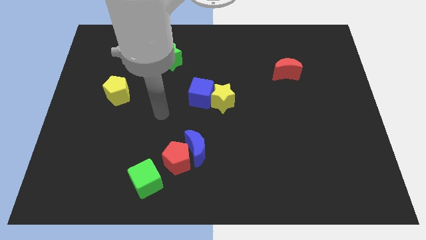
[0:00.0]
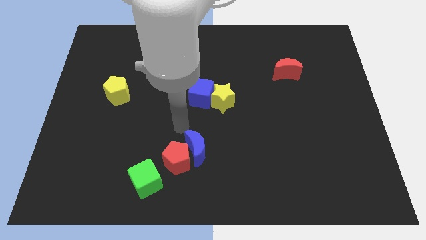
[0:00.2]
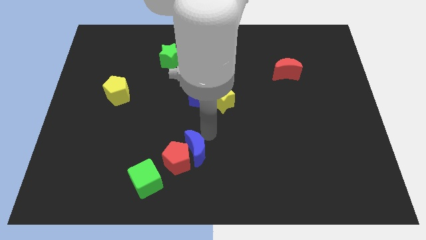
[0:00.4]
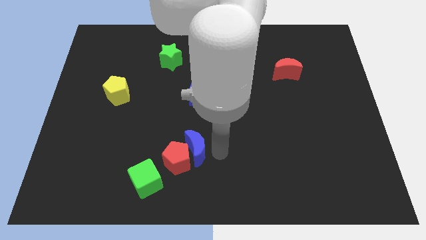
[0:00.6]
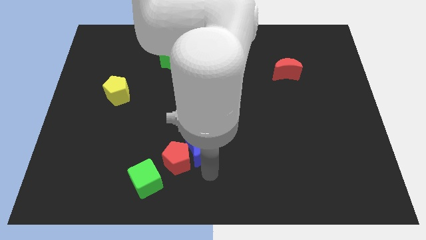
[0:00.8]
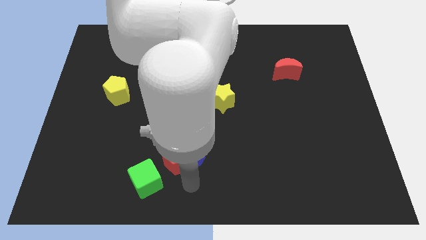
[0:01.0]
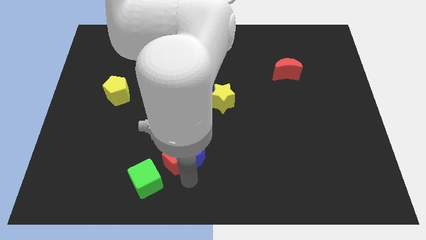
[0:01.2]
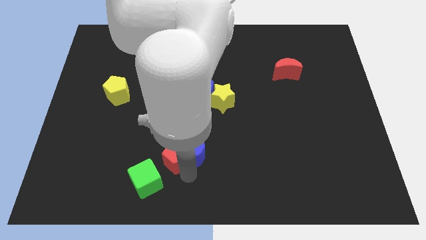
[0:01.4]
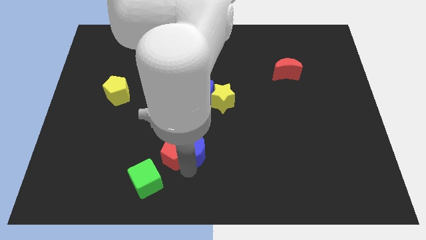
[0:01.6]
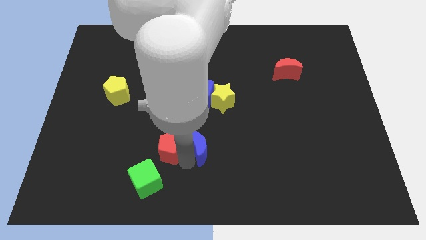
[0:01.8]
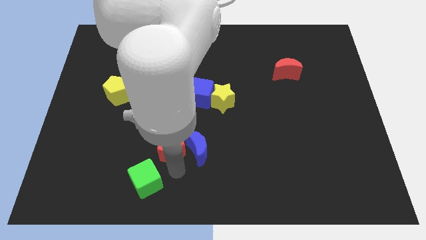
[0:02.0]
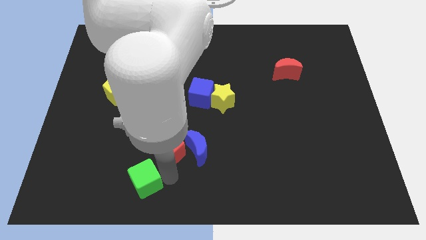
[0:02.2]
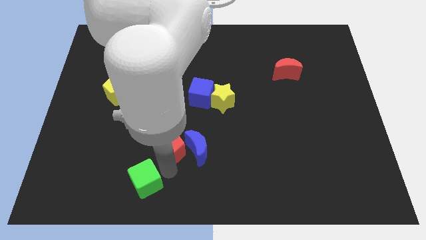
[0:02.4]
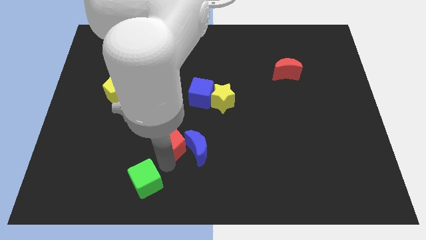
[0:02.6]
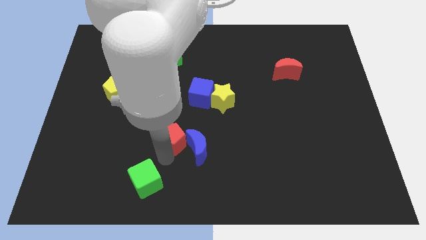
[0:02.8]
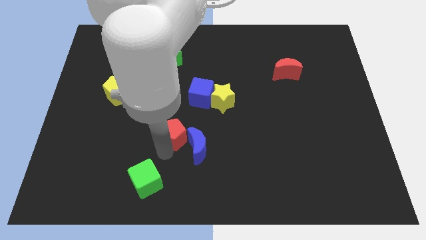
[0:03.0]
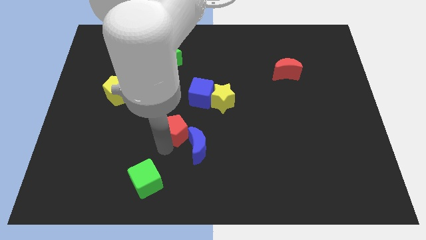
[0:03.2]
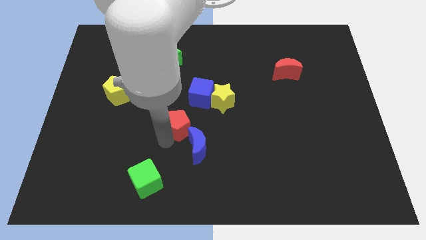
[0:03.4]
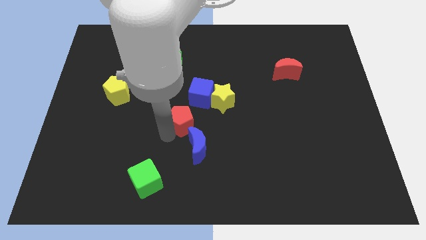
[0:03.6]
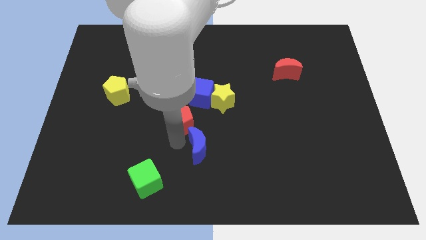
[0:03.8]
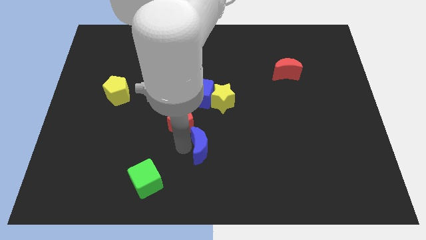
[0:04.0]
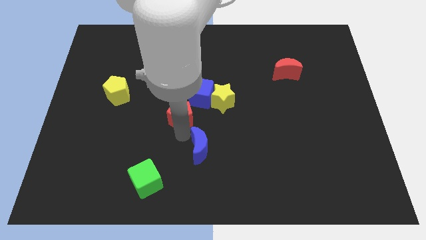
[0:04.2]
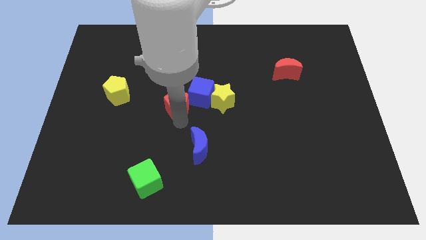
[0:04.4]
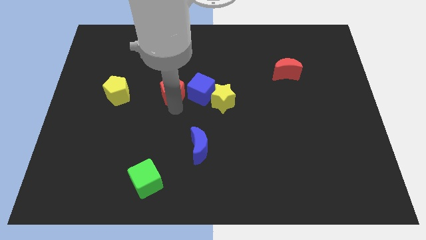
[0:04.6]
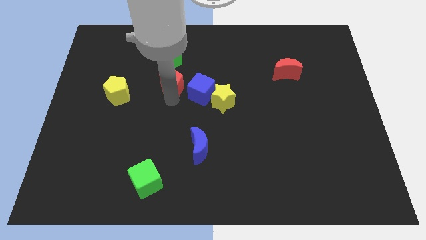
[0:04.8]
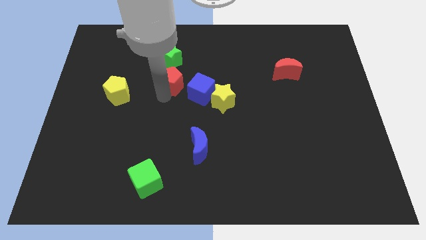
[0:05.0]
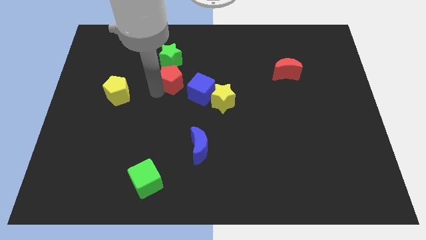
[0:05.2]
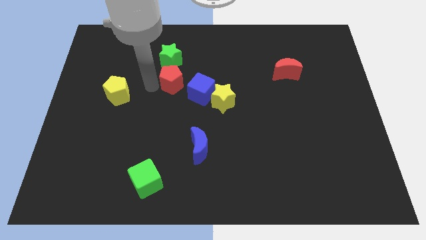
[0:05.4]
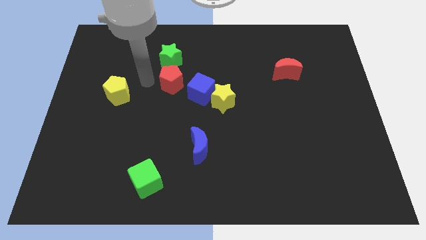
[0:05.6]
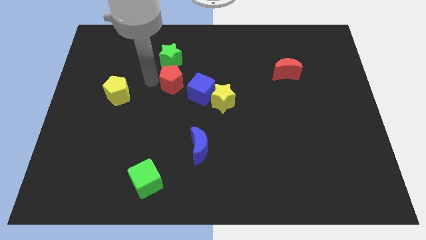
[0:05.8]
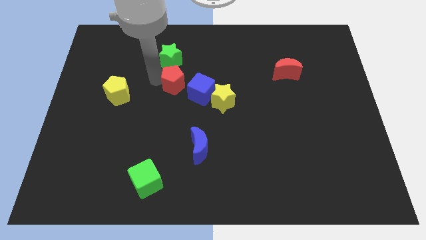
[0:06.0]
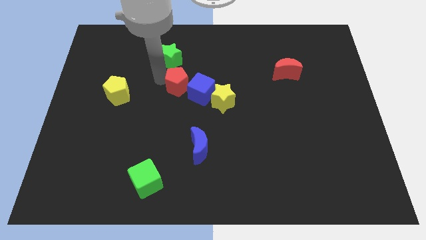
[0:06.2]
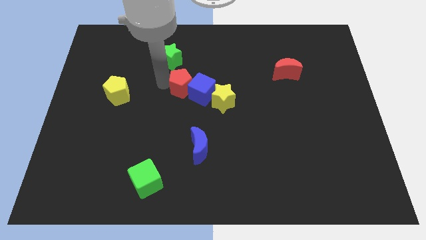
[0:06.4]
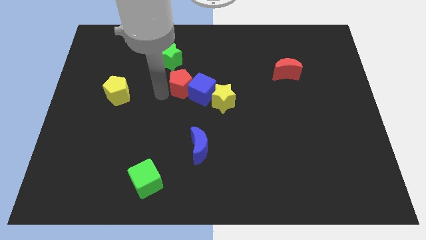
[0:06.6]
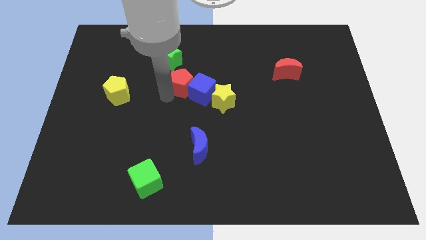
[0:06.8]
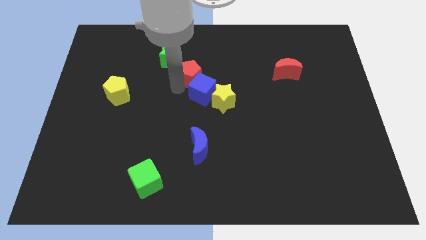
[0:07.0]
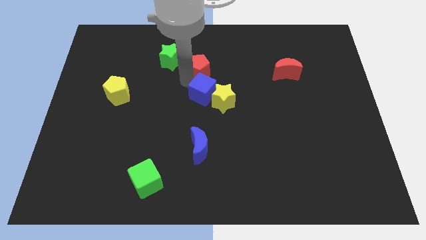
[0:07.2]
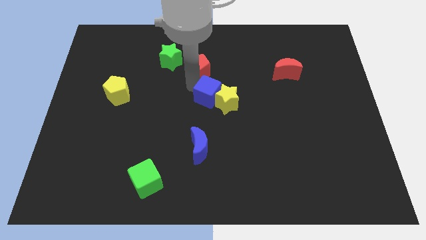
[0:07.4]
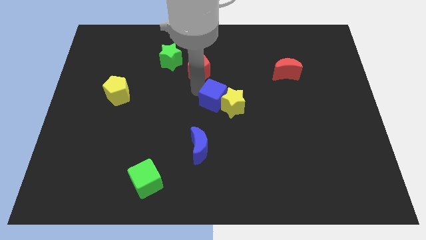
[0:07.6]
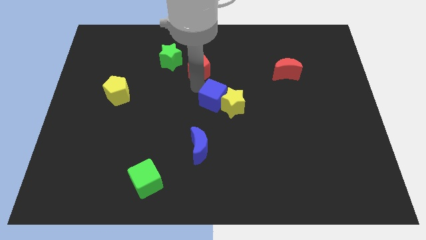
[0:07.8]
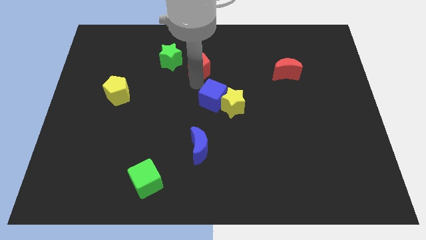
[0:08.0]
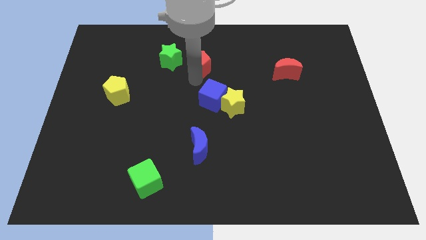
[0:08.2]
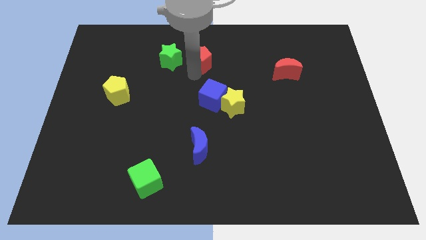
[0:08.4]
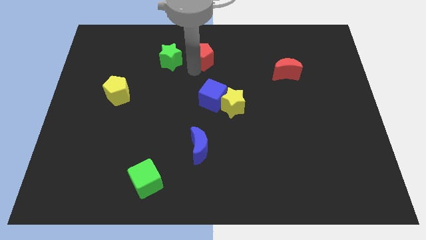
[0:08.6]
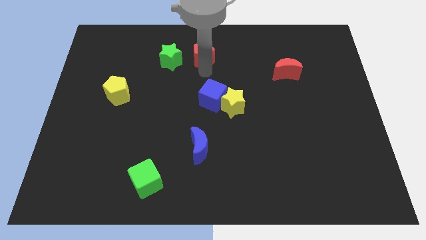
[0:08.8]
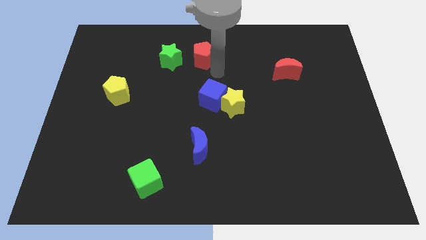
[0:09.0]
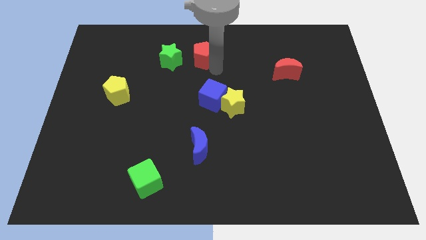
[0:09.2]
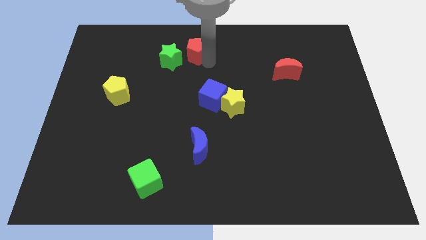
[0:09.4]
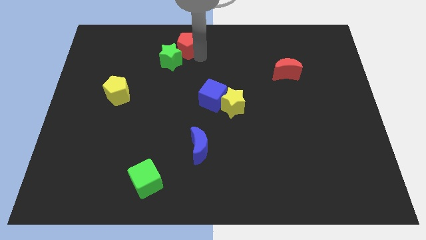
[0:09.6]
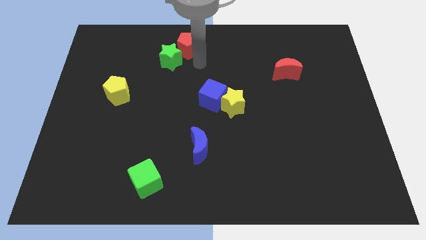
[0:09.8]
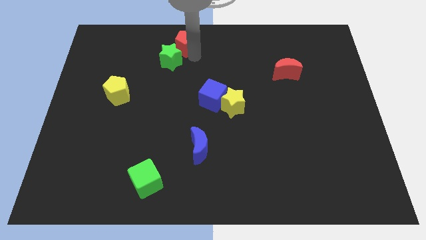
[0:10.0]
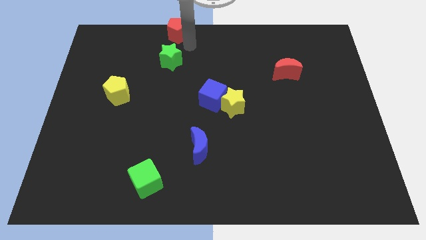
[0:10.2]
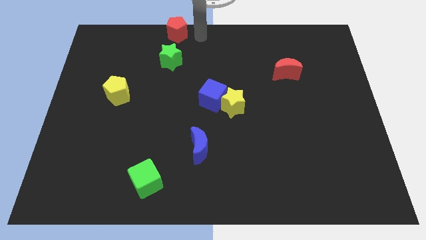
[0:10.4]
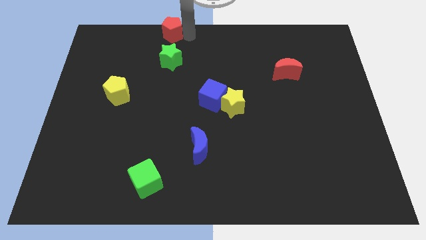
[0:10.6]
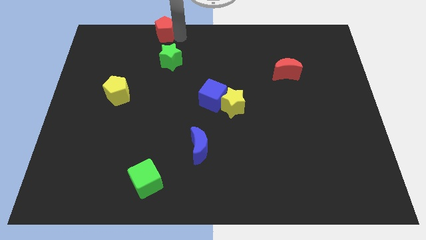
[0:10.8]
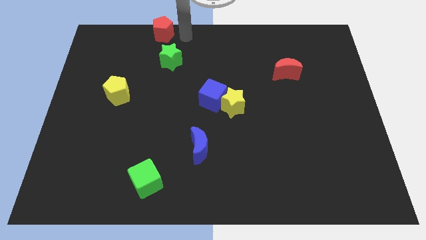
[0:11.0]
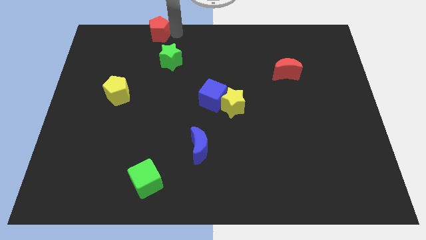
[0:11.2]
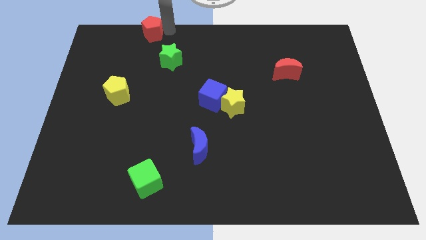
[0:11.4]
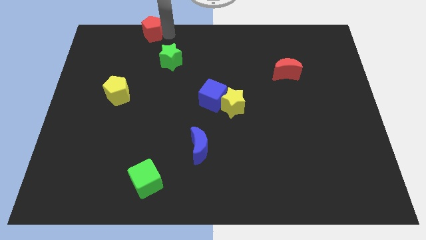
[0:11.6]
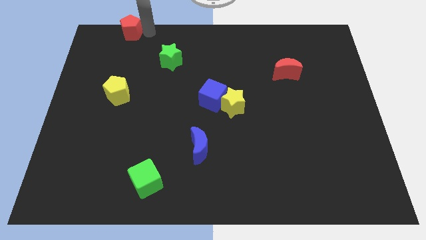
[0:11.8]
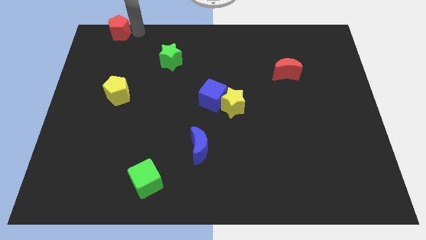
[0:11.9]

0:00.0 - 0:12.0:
push the red pentagon to the top left corner

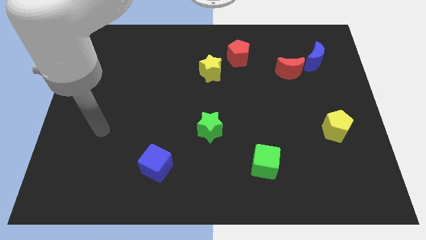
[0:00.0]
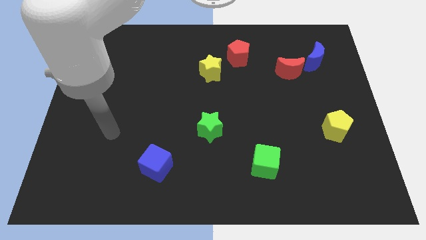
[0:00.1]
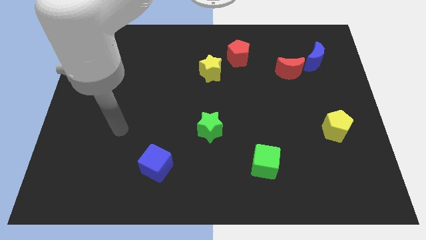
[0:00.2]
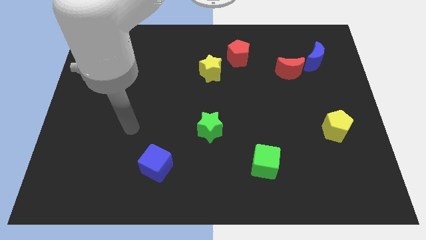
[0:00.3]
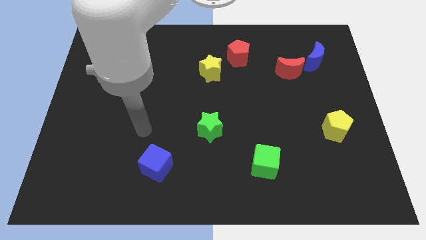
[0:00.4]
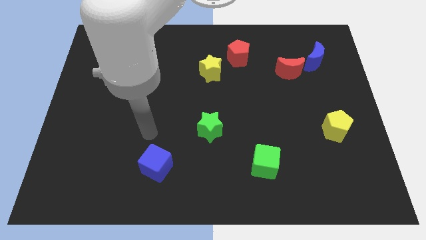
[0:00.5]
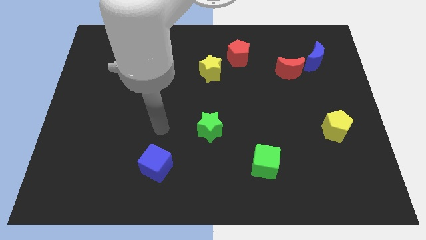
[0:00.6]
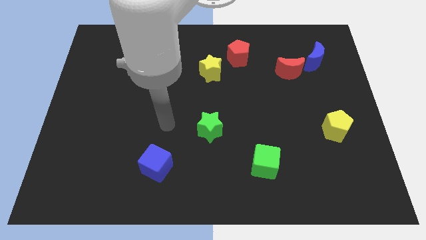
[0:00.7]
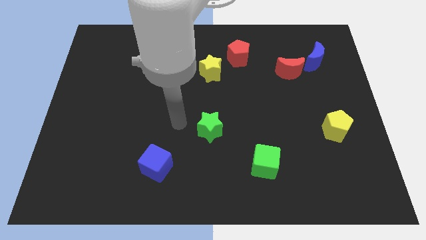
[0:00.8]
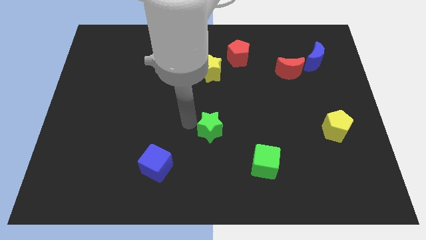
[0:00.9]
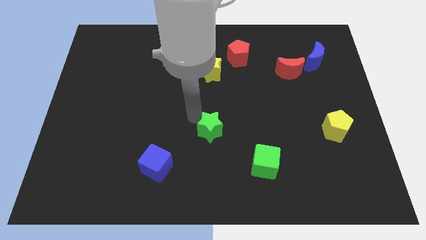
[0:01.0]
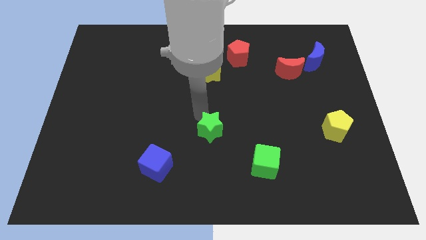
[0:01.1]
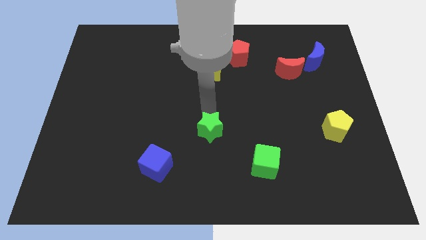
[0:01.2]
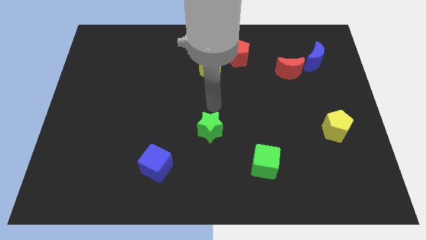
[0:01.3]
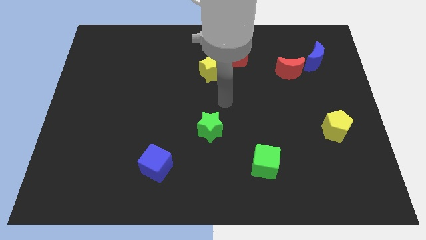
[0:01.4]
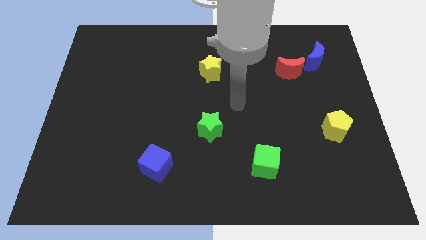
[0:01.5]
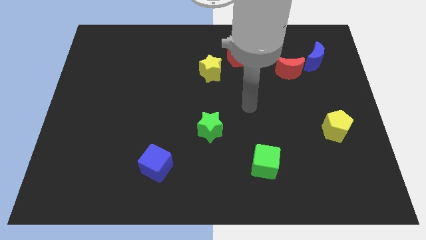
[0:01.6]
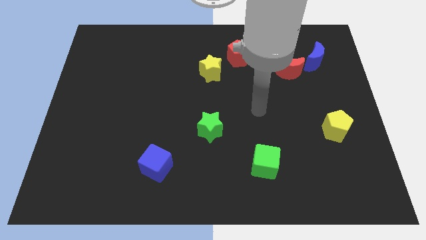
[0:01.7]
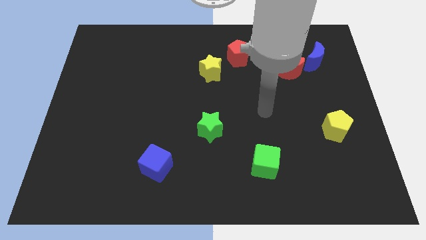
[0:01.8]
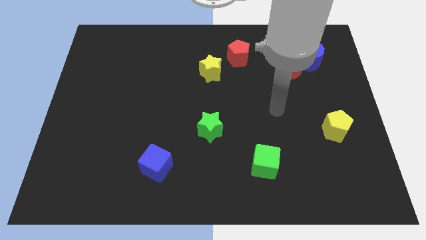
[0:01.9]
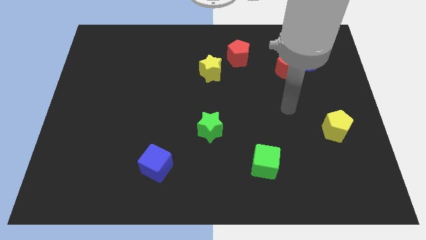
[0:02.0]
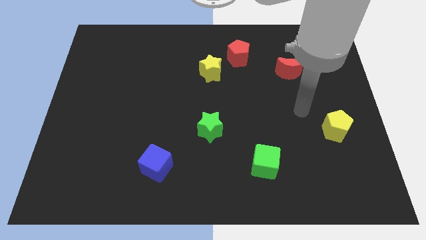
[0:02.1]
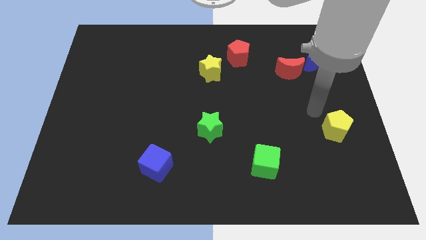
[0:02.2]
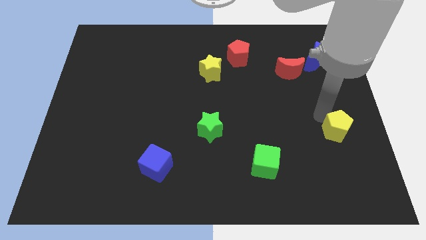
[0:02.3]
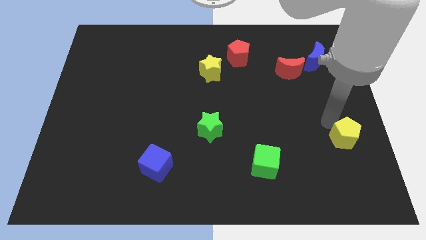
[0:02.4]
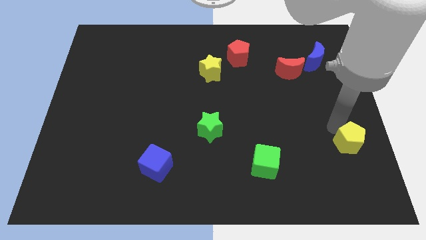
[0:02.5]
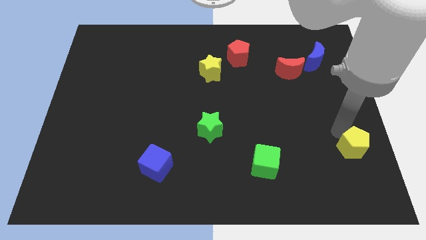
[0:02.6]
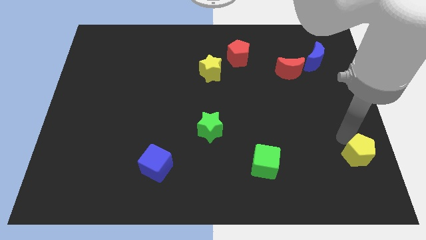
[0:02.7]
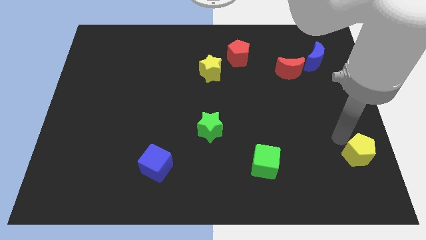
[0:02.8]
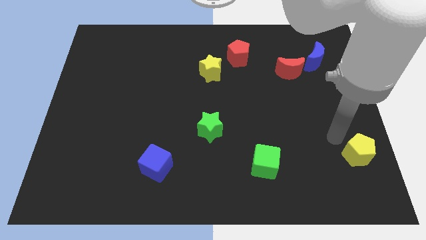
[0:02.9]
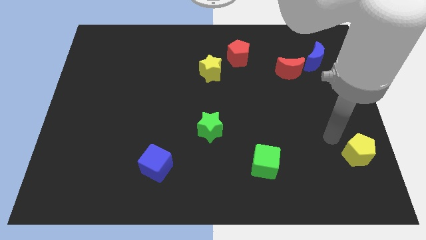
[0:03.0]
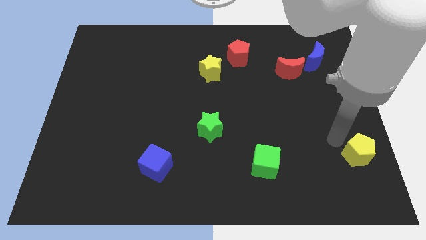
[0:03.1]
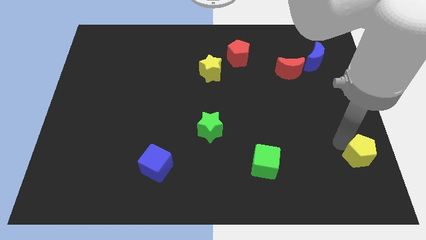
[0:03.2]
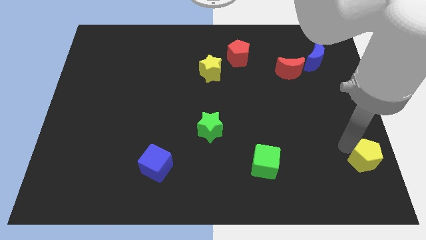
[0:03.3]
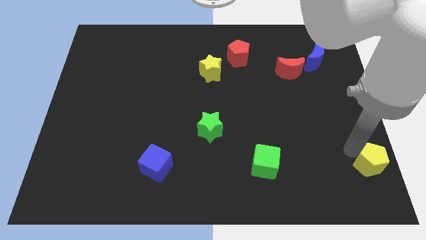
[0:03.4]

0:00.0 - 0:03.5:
push the yellow pentagon to the bottom right of the board
